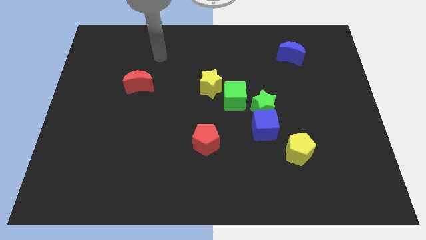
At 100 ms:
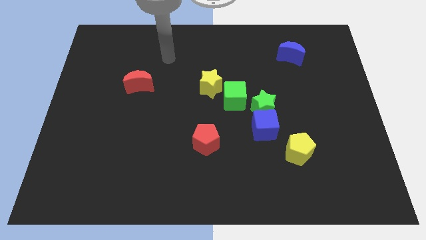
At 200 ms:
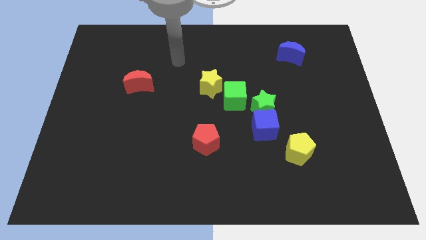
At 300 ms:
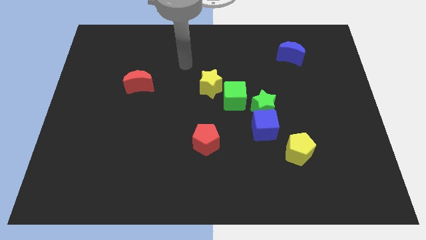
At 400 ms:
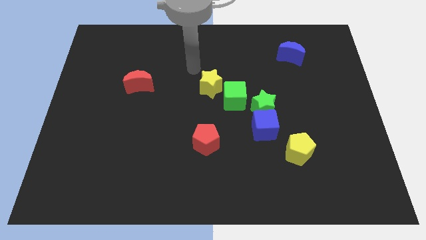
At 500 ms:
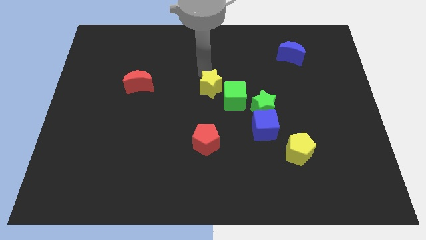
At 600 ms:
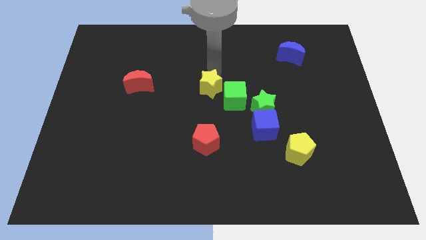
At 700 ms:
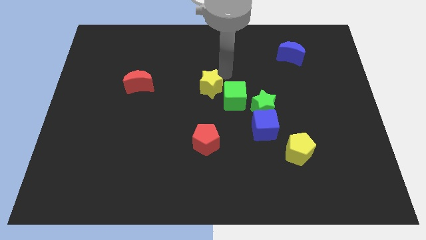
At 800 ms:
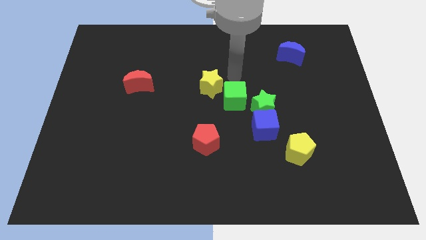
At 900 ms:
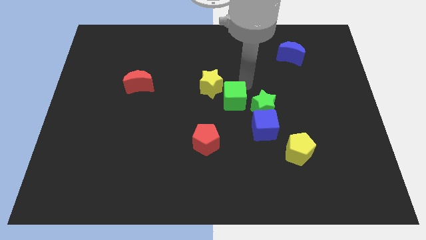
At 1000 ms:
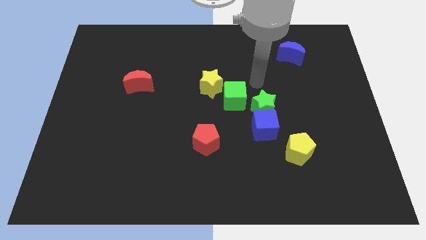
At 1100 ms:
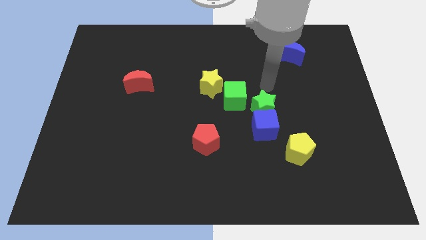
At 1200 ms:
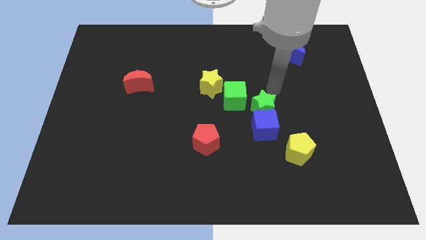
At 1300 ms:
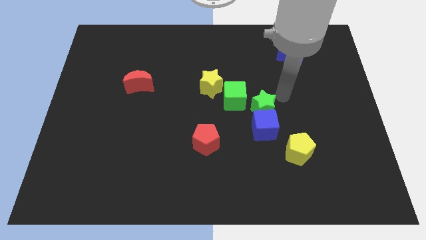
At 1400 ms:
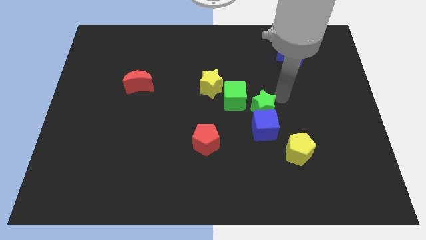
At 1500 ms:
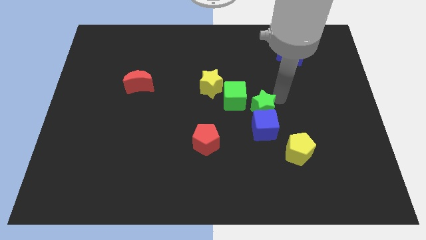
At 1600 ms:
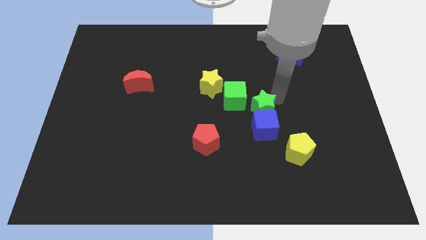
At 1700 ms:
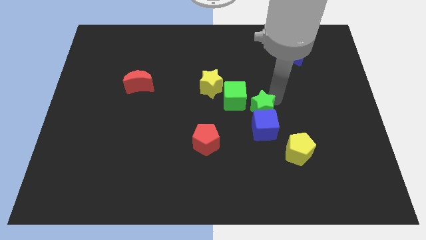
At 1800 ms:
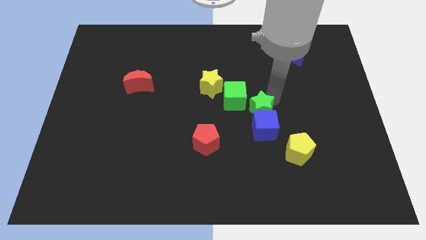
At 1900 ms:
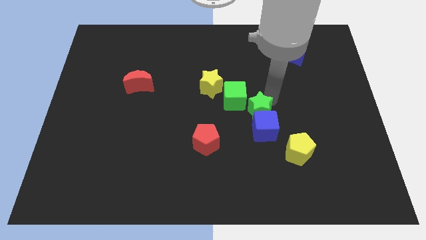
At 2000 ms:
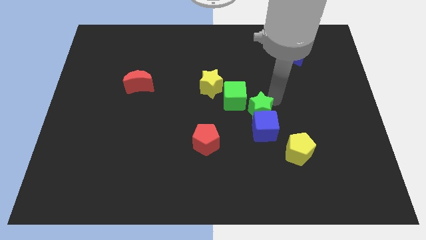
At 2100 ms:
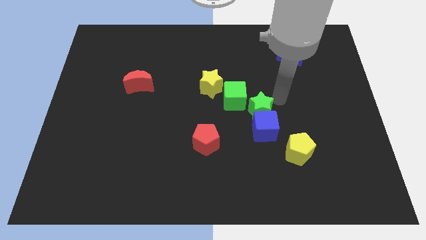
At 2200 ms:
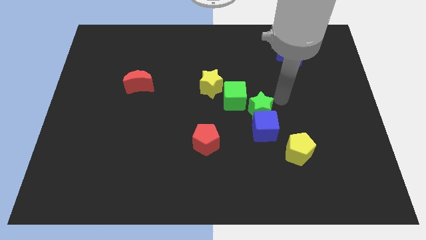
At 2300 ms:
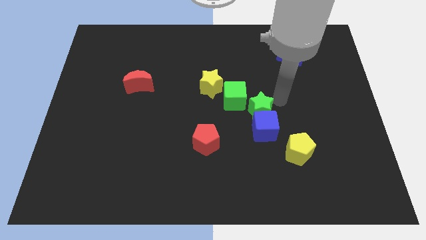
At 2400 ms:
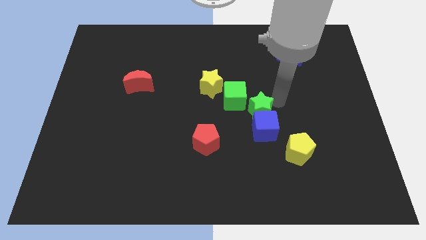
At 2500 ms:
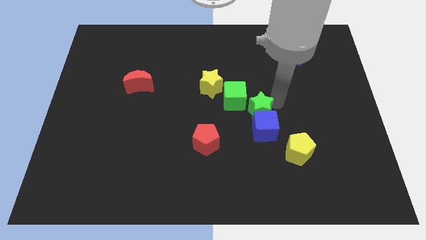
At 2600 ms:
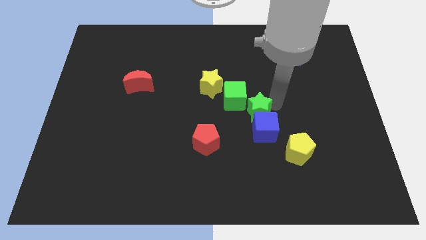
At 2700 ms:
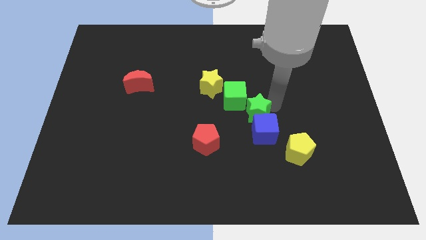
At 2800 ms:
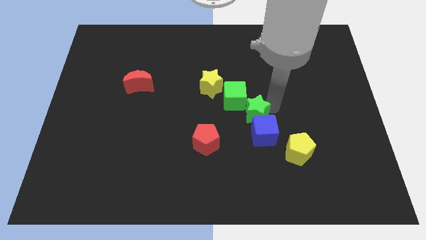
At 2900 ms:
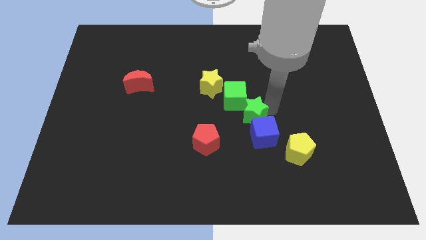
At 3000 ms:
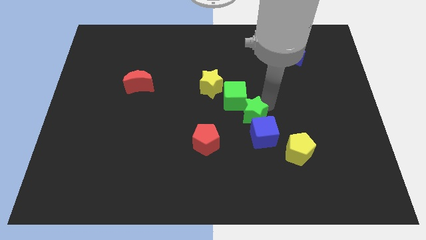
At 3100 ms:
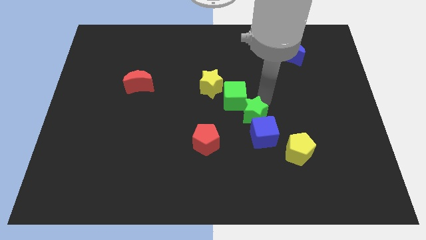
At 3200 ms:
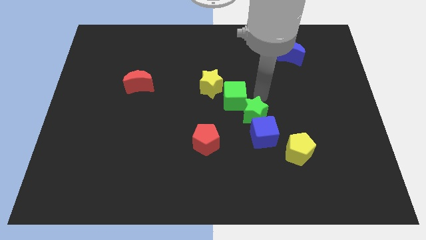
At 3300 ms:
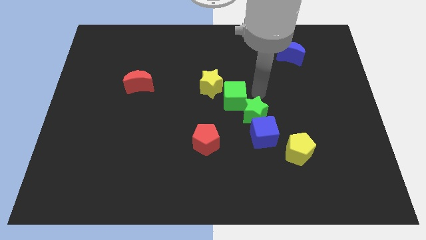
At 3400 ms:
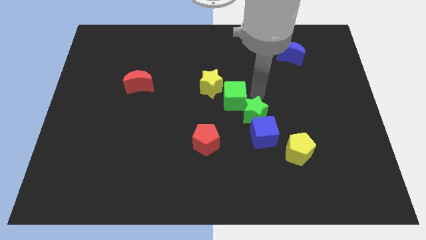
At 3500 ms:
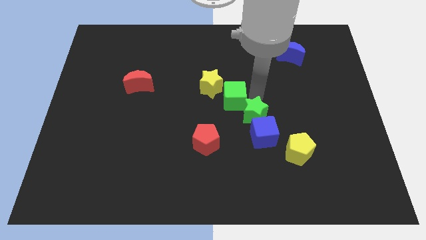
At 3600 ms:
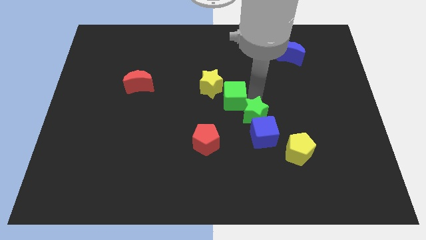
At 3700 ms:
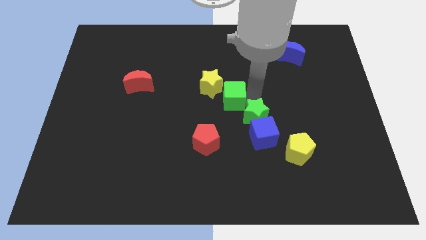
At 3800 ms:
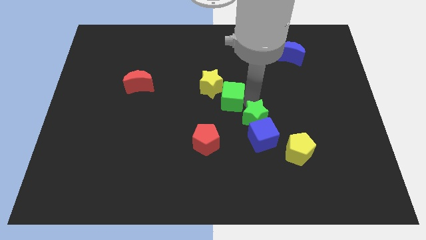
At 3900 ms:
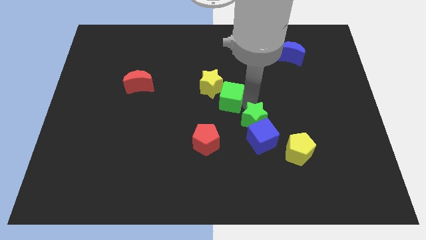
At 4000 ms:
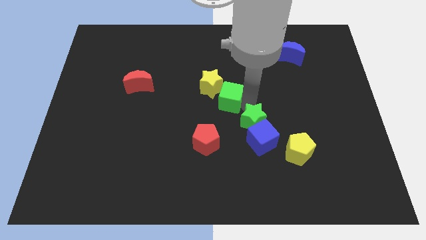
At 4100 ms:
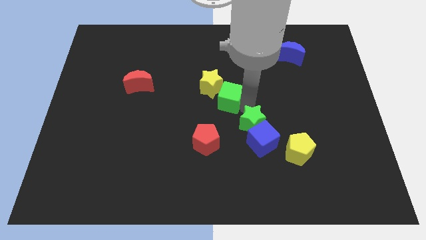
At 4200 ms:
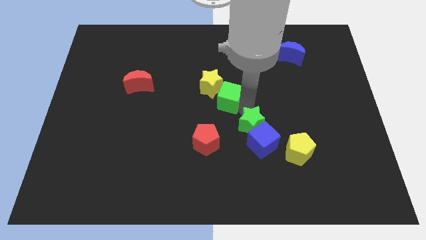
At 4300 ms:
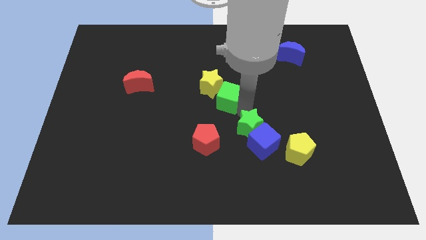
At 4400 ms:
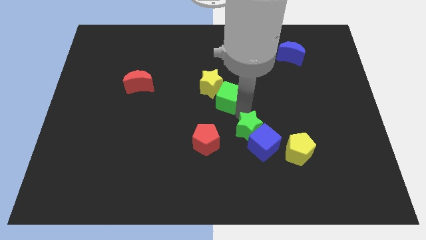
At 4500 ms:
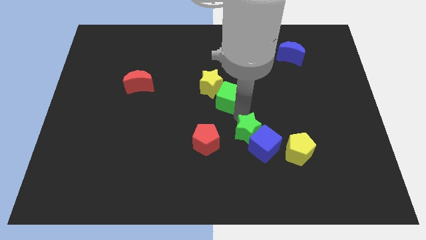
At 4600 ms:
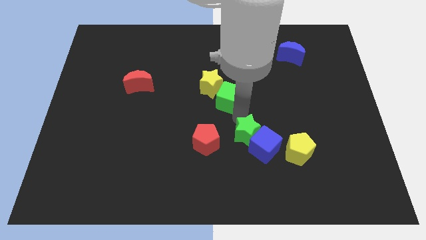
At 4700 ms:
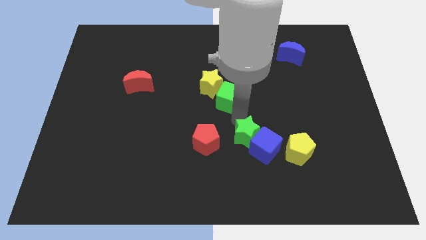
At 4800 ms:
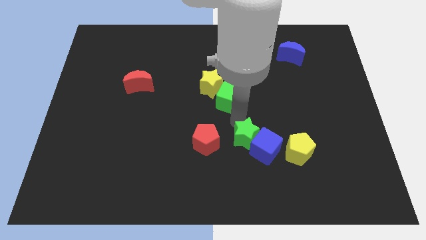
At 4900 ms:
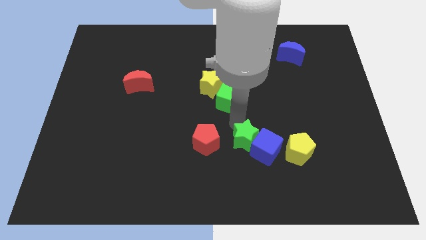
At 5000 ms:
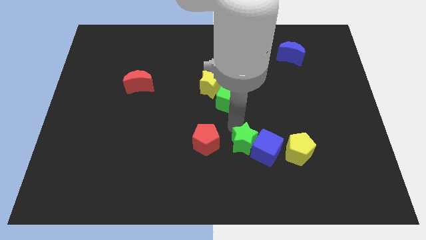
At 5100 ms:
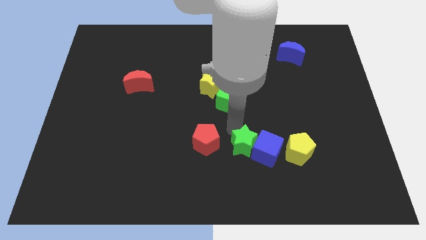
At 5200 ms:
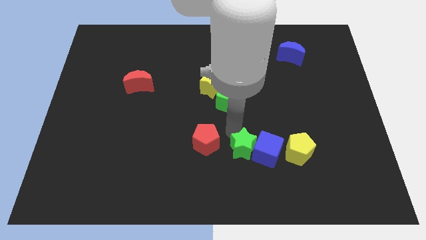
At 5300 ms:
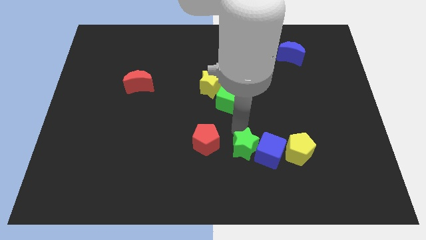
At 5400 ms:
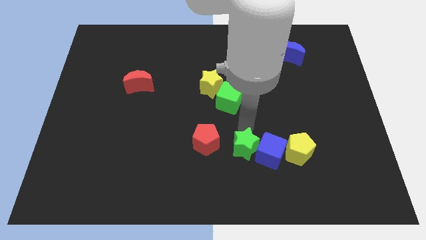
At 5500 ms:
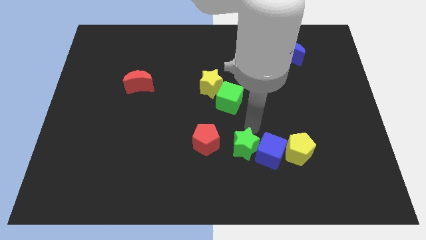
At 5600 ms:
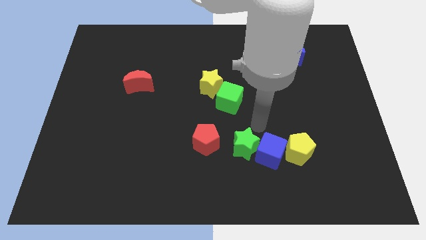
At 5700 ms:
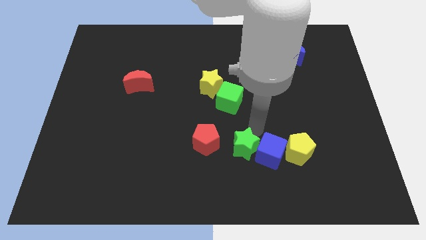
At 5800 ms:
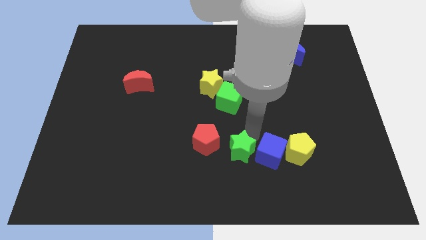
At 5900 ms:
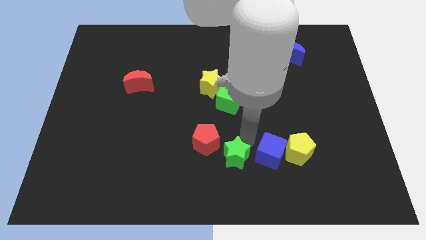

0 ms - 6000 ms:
slide the green star to the bottom

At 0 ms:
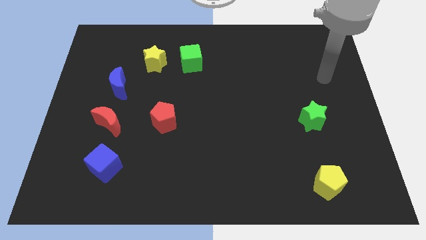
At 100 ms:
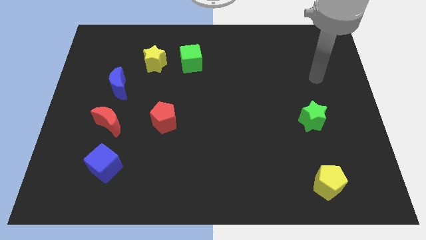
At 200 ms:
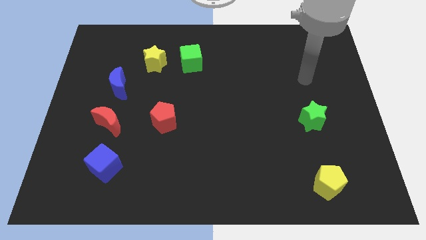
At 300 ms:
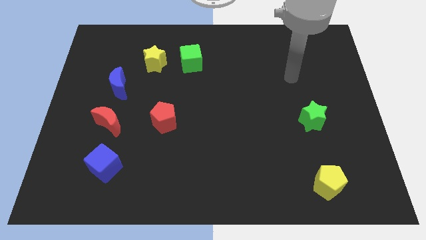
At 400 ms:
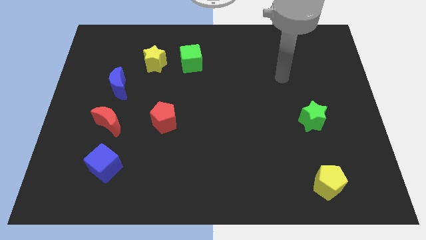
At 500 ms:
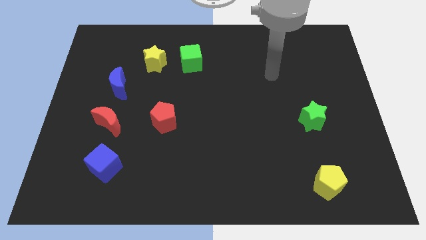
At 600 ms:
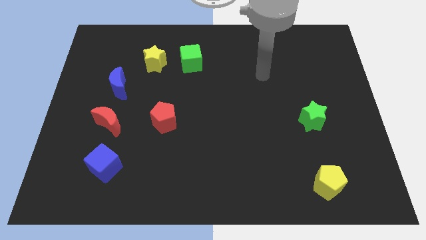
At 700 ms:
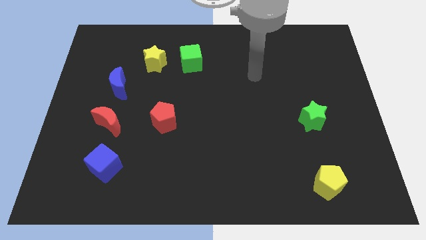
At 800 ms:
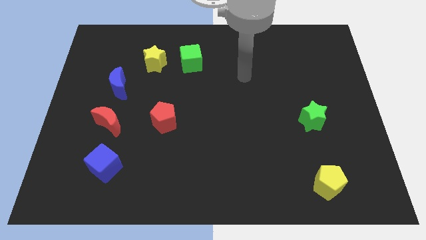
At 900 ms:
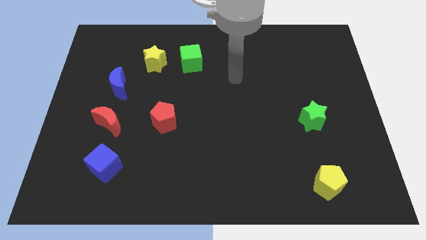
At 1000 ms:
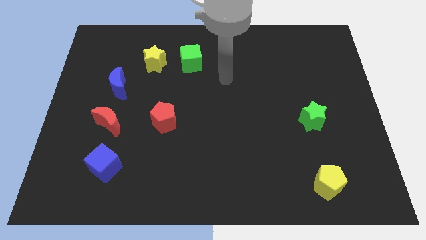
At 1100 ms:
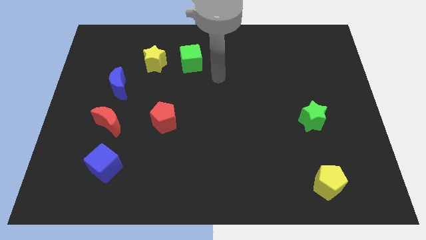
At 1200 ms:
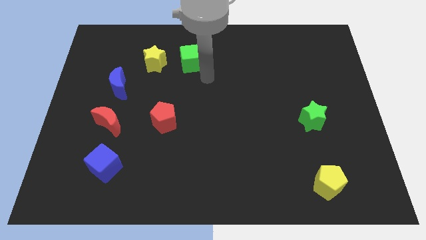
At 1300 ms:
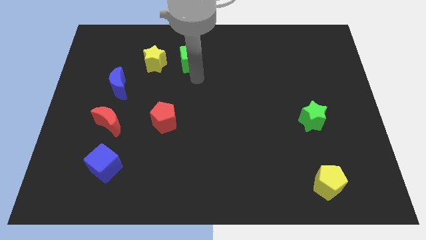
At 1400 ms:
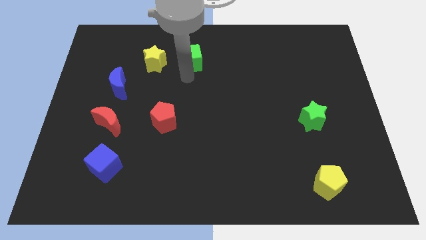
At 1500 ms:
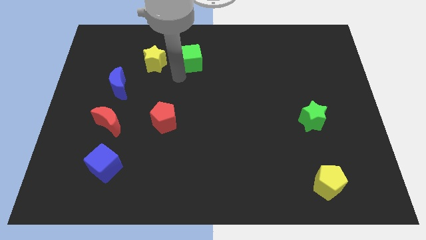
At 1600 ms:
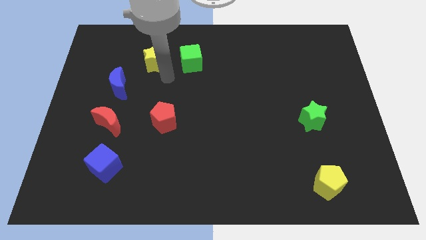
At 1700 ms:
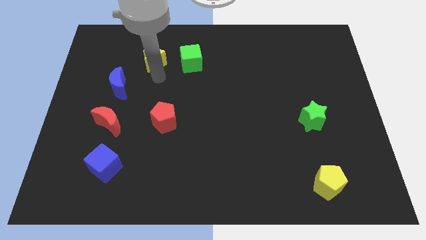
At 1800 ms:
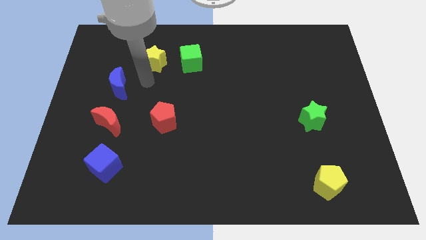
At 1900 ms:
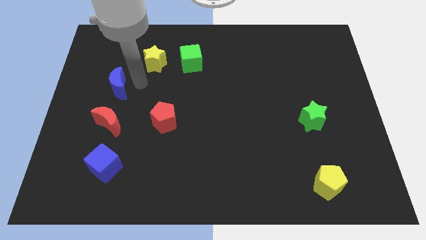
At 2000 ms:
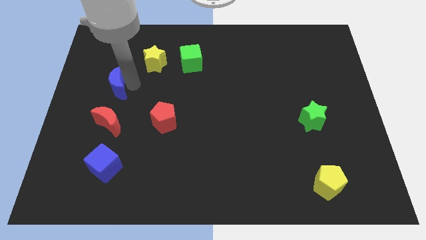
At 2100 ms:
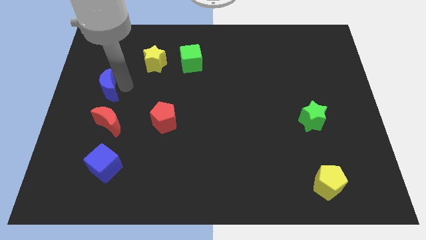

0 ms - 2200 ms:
slide the blue moon to the left side of the board
